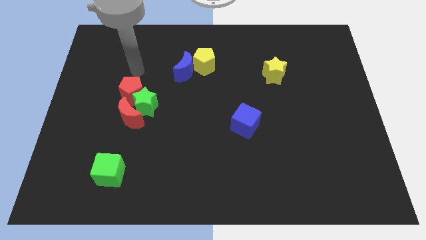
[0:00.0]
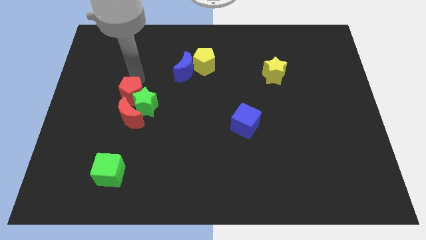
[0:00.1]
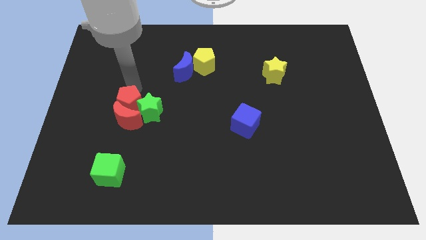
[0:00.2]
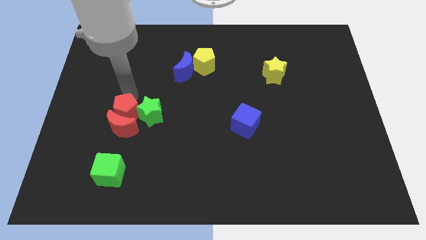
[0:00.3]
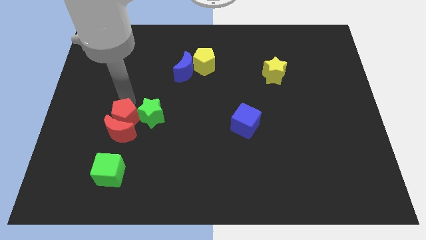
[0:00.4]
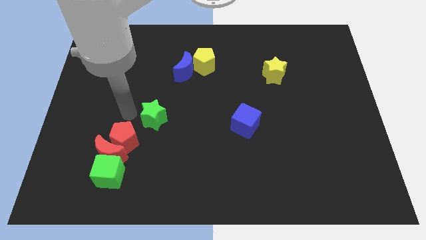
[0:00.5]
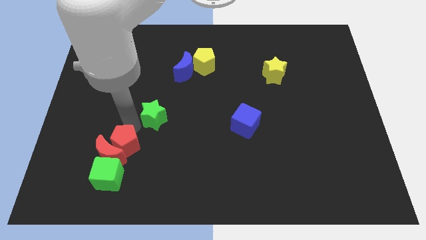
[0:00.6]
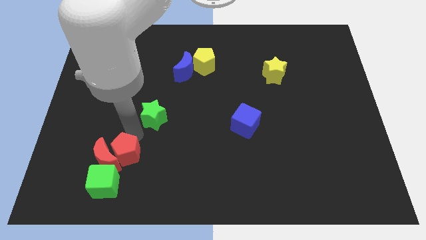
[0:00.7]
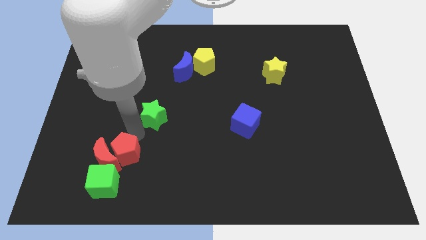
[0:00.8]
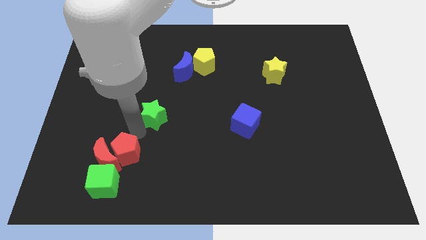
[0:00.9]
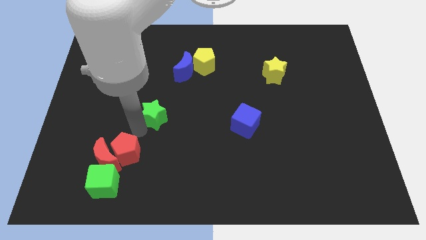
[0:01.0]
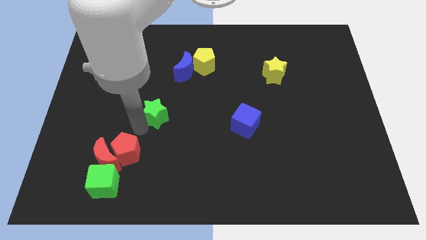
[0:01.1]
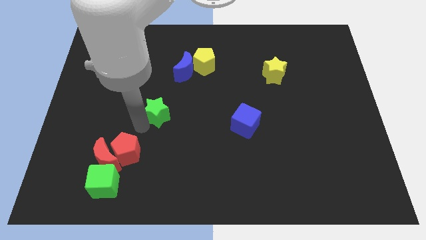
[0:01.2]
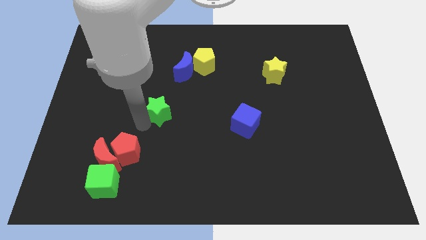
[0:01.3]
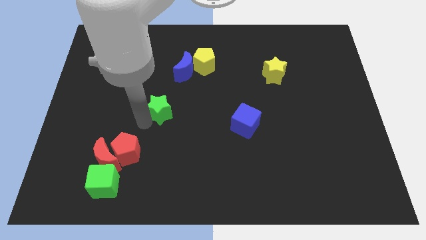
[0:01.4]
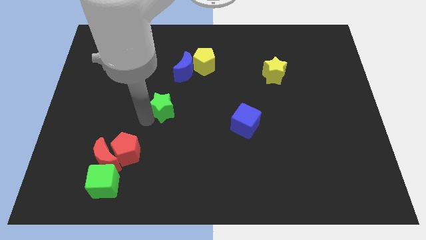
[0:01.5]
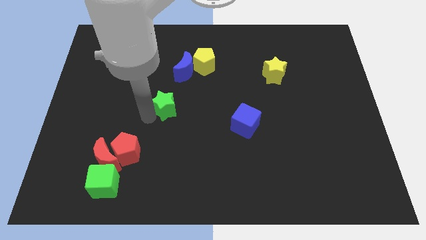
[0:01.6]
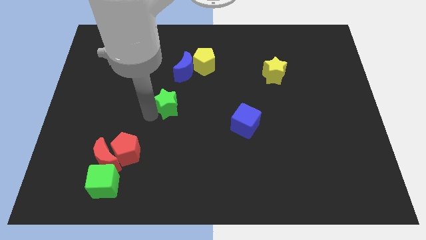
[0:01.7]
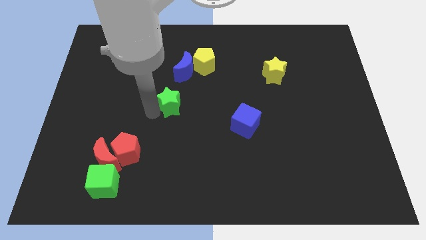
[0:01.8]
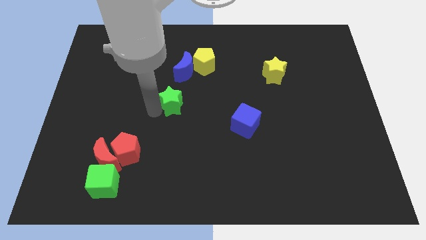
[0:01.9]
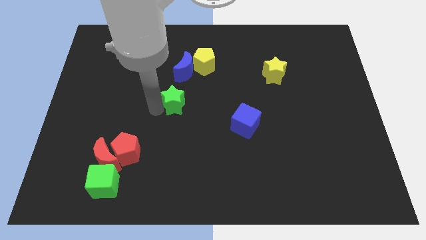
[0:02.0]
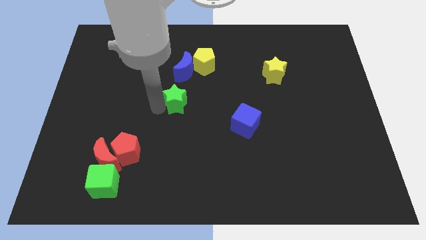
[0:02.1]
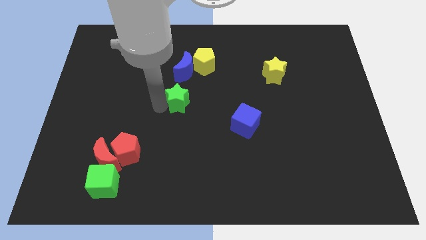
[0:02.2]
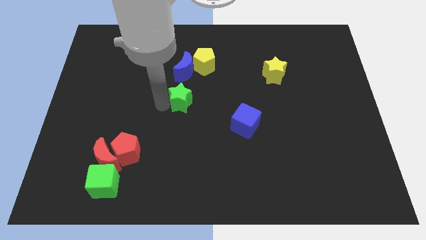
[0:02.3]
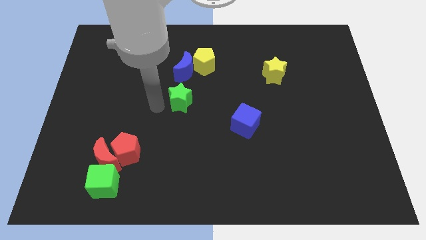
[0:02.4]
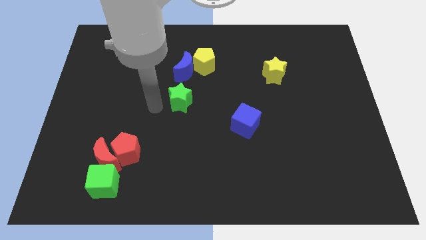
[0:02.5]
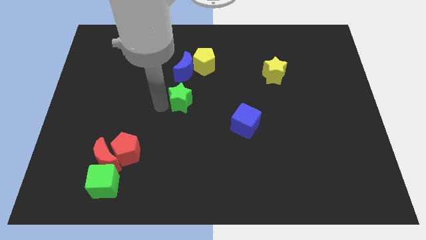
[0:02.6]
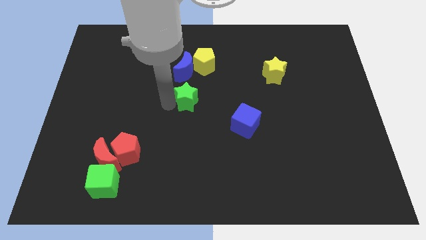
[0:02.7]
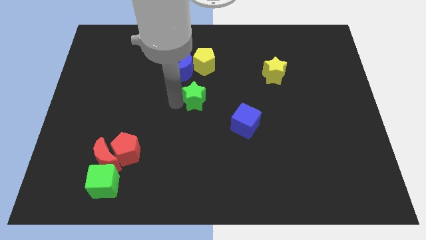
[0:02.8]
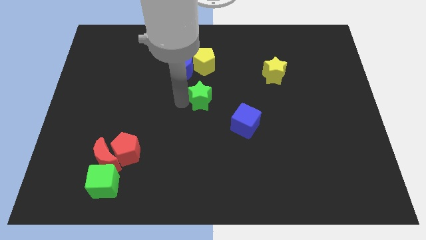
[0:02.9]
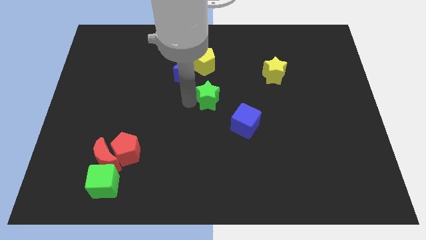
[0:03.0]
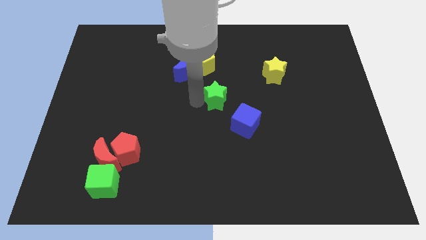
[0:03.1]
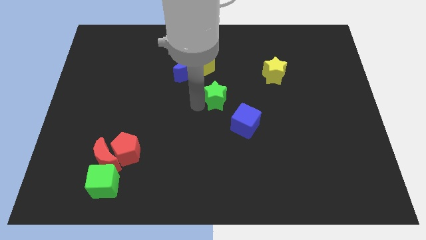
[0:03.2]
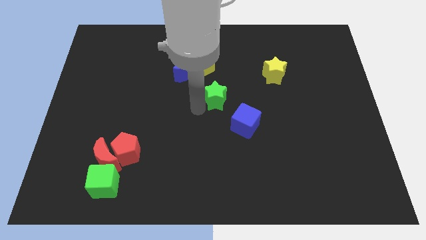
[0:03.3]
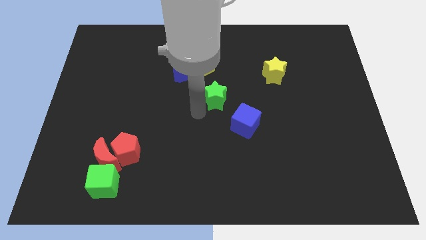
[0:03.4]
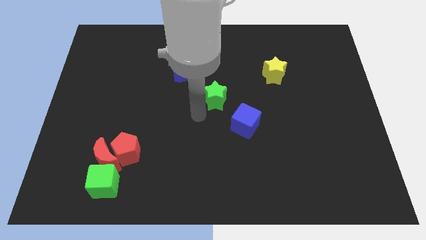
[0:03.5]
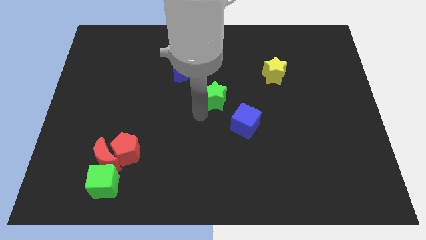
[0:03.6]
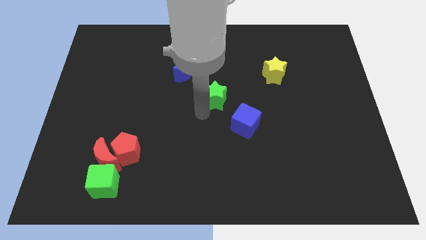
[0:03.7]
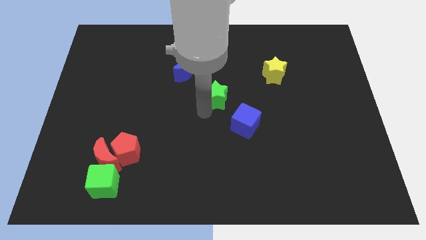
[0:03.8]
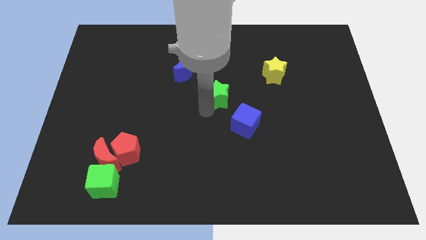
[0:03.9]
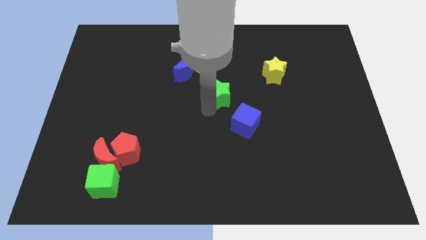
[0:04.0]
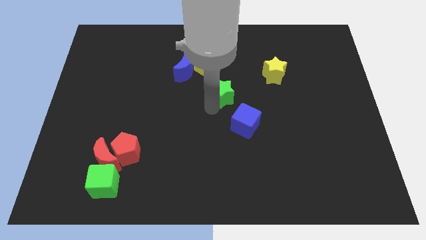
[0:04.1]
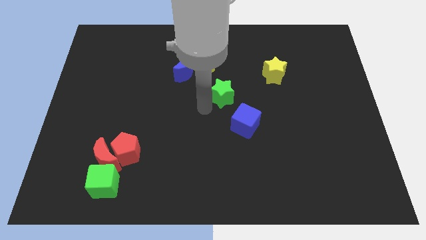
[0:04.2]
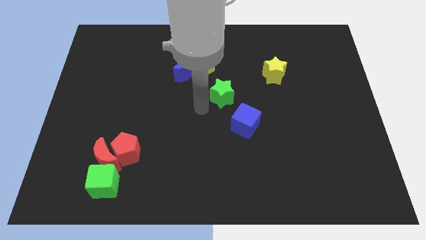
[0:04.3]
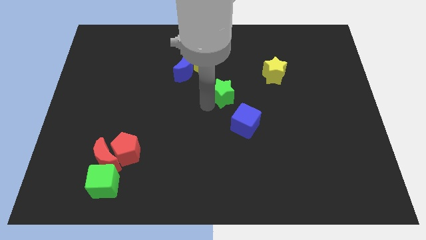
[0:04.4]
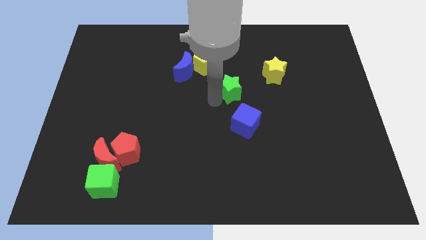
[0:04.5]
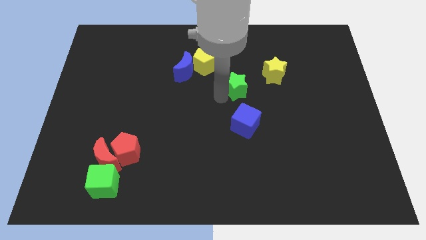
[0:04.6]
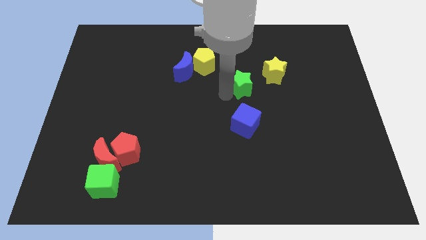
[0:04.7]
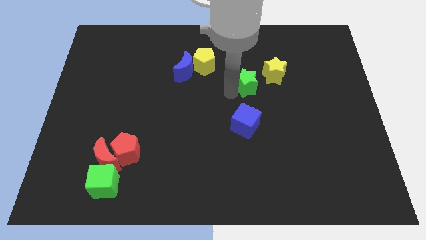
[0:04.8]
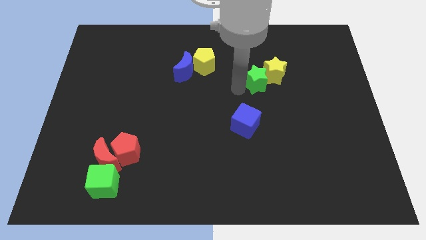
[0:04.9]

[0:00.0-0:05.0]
put the green star to the yellow star

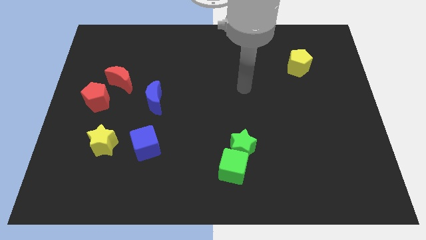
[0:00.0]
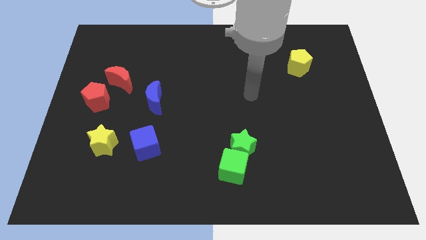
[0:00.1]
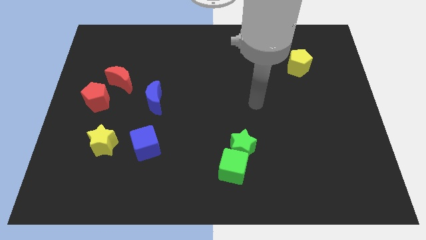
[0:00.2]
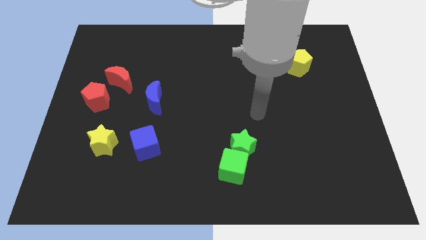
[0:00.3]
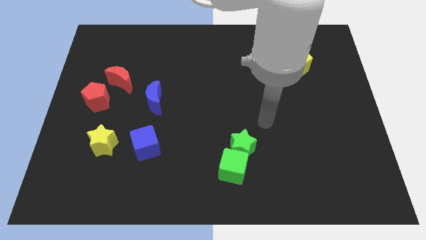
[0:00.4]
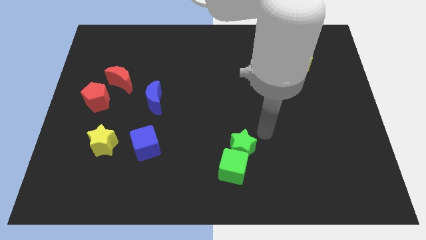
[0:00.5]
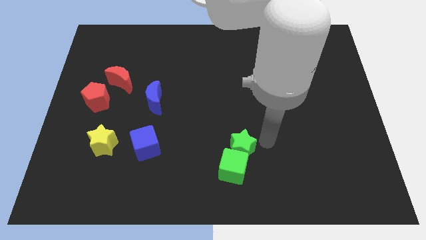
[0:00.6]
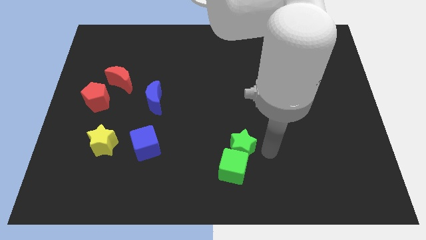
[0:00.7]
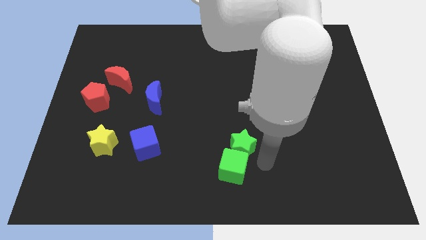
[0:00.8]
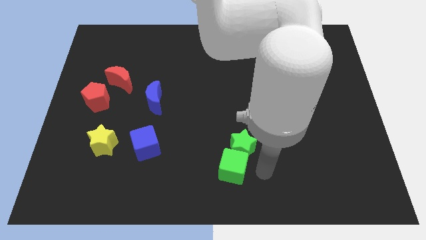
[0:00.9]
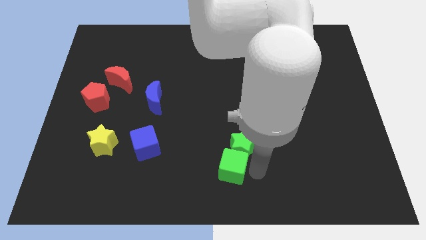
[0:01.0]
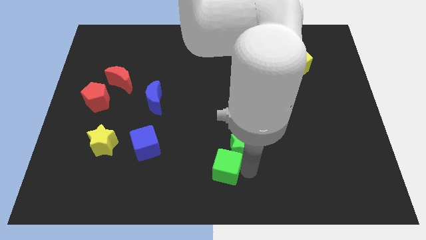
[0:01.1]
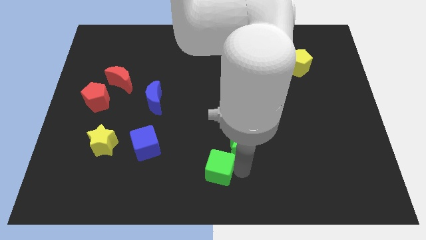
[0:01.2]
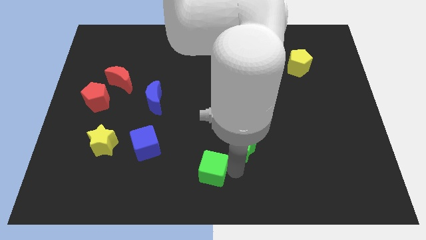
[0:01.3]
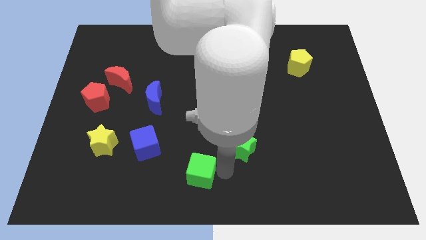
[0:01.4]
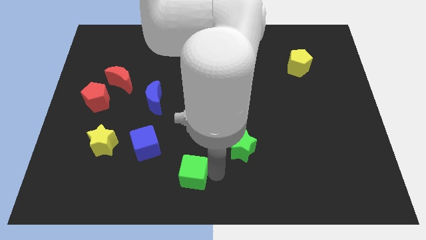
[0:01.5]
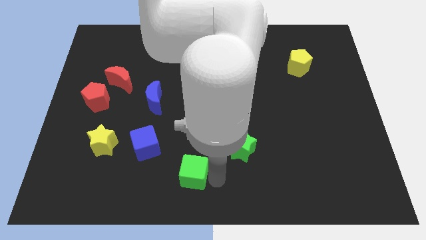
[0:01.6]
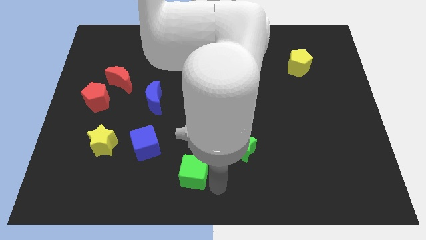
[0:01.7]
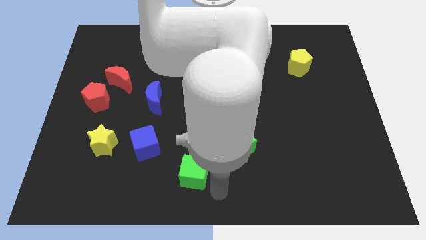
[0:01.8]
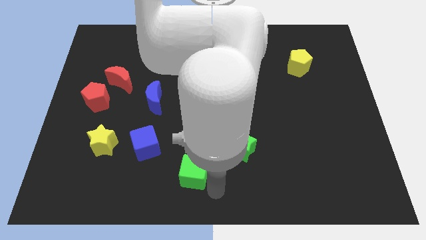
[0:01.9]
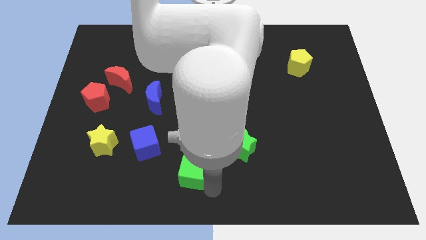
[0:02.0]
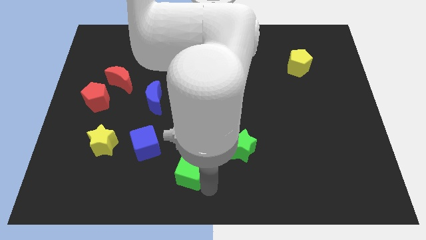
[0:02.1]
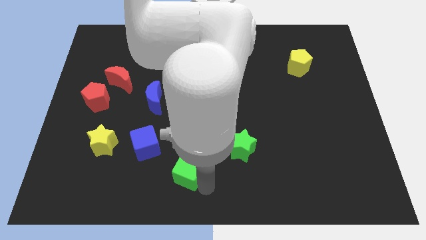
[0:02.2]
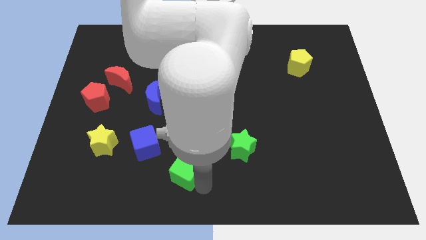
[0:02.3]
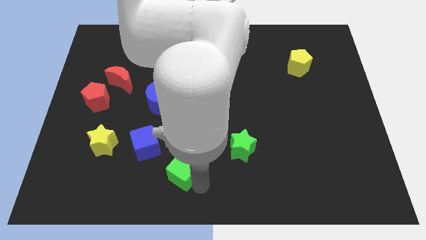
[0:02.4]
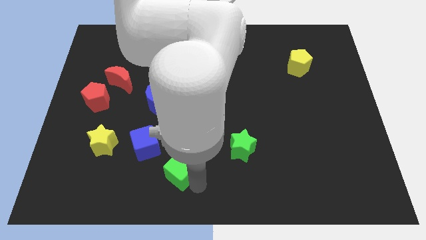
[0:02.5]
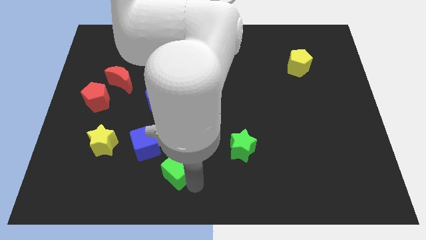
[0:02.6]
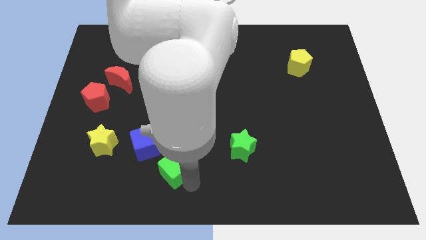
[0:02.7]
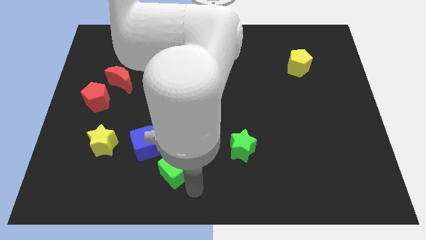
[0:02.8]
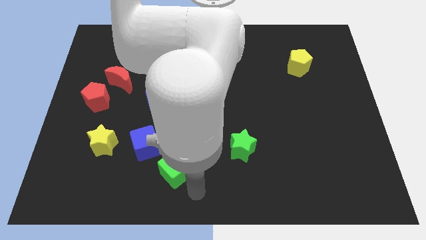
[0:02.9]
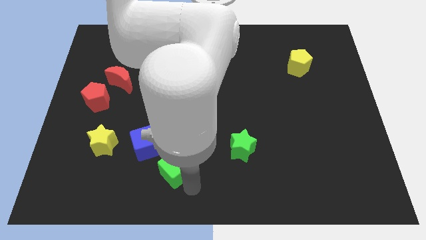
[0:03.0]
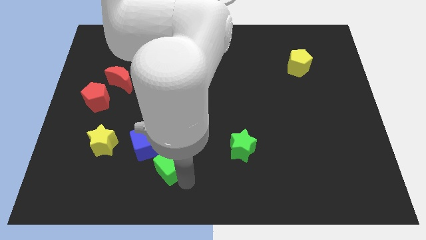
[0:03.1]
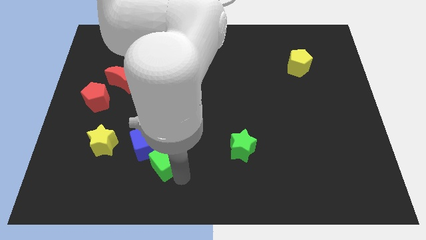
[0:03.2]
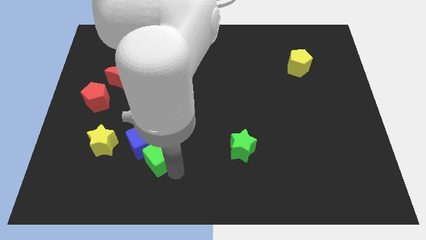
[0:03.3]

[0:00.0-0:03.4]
put the green cube next to the blue cube
